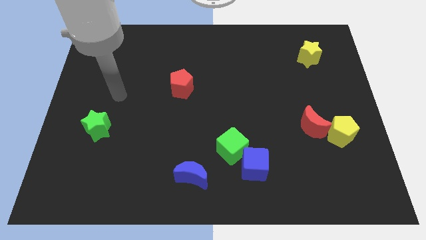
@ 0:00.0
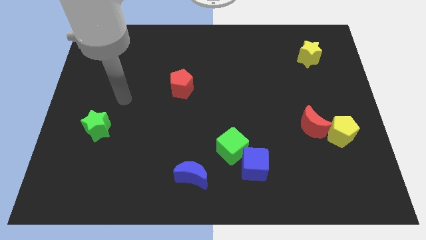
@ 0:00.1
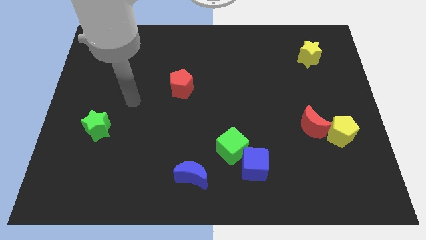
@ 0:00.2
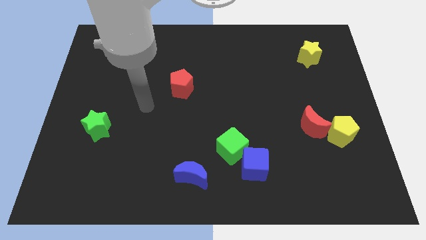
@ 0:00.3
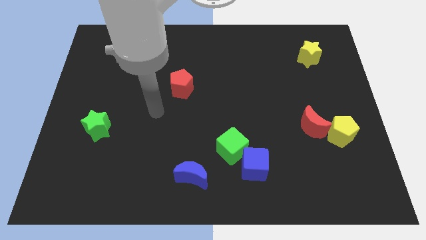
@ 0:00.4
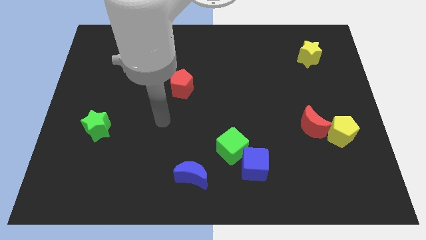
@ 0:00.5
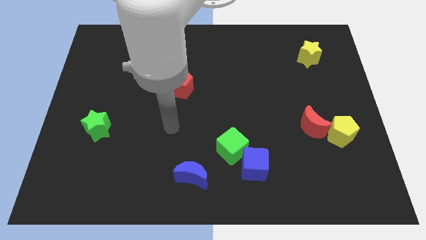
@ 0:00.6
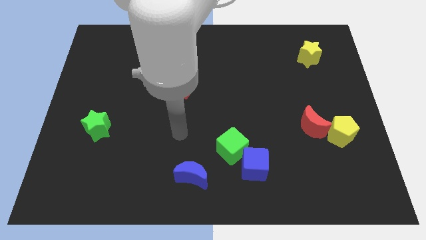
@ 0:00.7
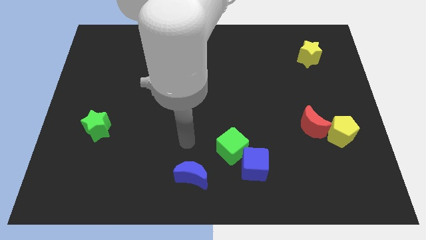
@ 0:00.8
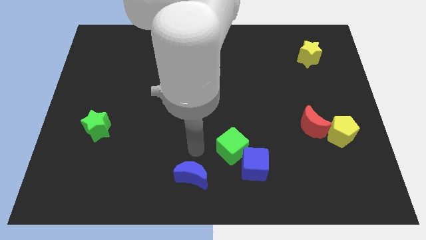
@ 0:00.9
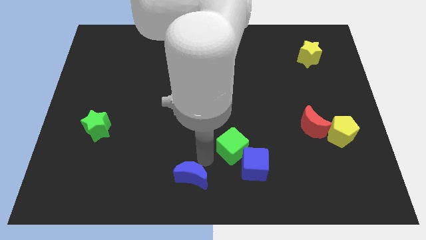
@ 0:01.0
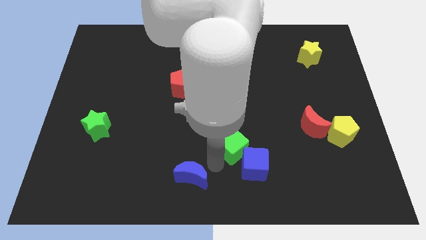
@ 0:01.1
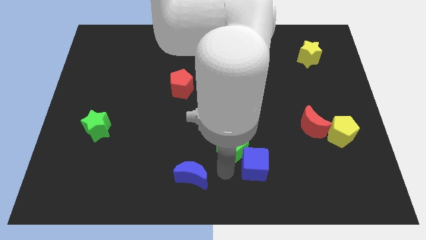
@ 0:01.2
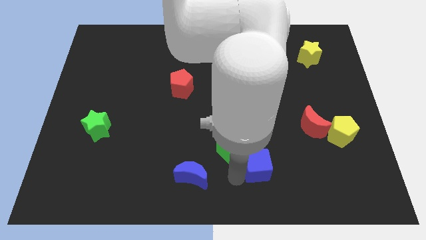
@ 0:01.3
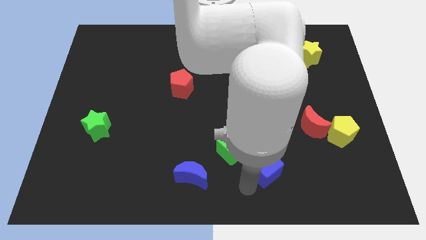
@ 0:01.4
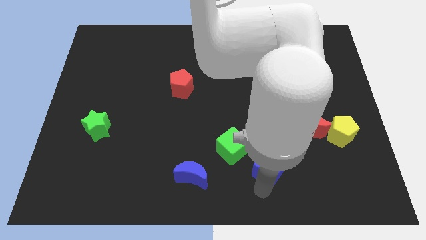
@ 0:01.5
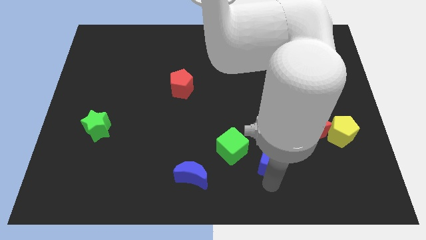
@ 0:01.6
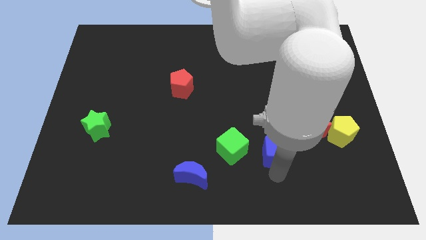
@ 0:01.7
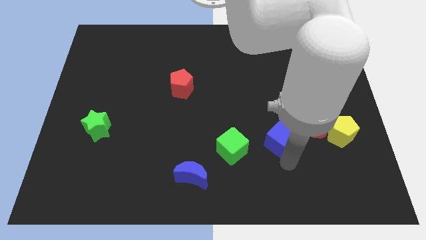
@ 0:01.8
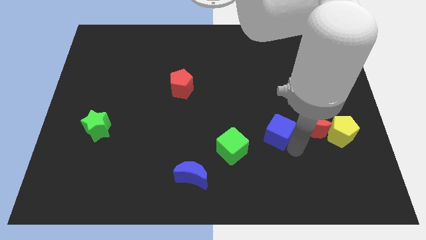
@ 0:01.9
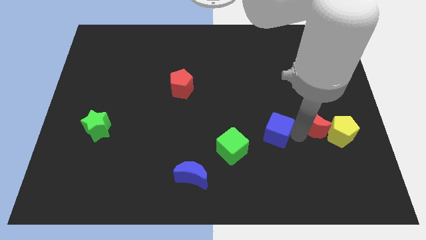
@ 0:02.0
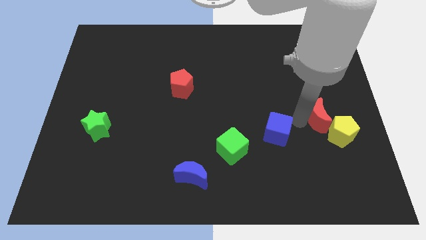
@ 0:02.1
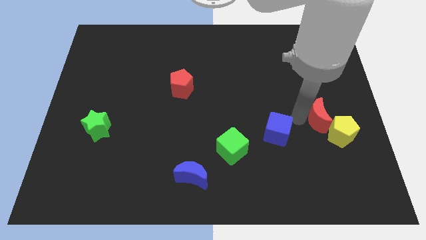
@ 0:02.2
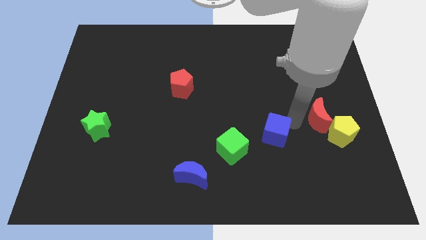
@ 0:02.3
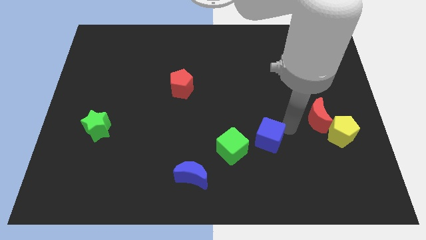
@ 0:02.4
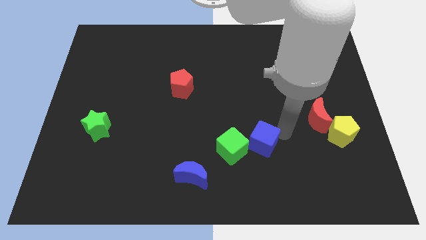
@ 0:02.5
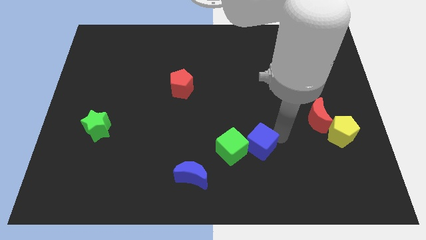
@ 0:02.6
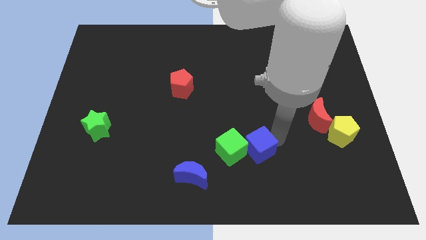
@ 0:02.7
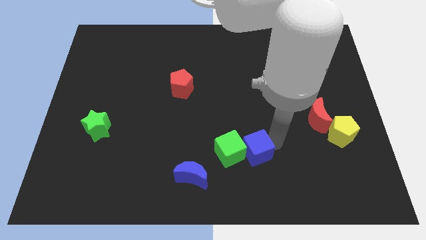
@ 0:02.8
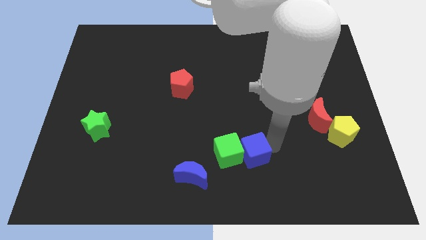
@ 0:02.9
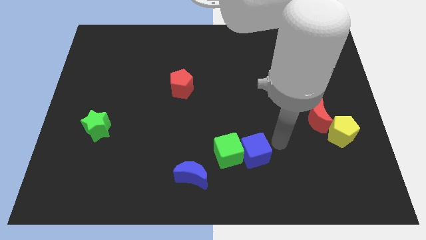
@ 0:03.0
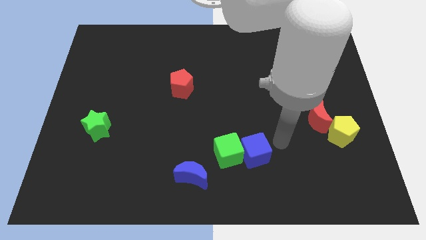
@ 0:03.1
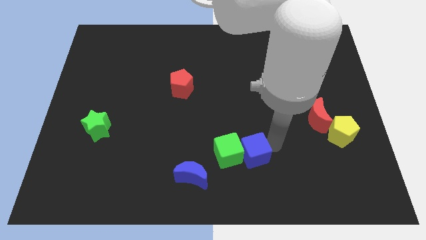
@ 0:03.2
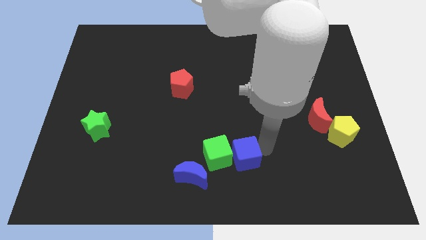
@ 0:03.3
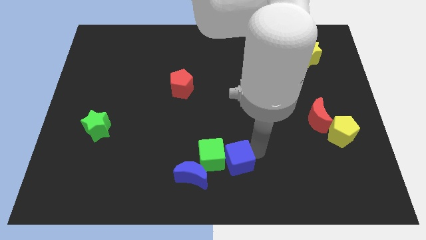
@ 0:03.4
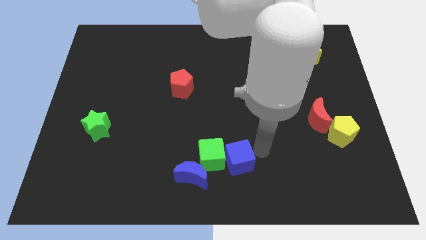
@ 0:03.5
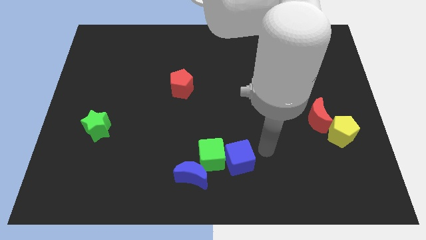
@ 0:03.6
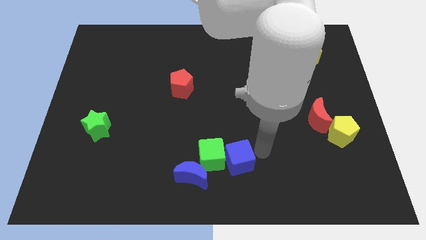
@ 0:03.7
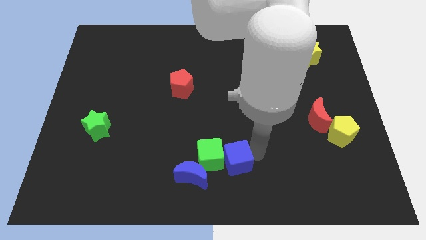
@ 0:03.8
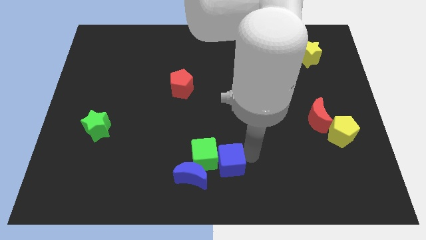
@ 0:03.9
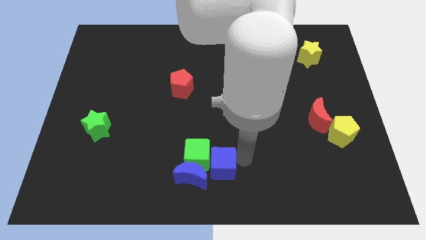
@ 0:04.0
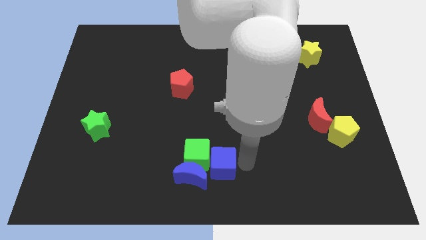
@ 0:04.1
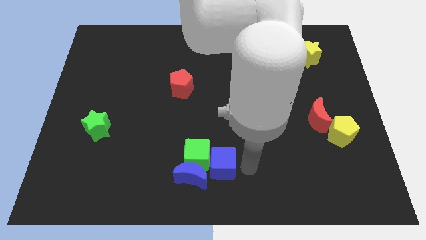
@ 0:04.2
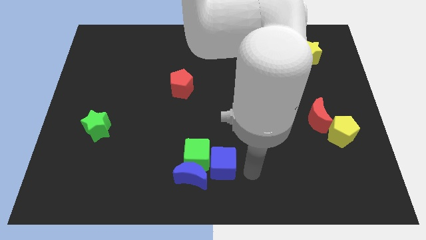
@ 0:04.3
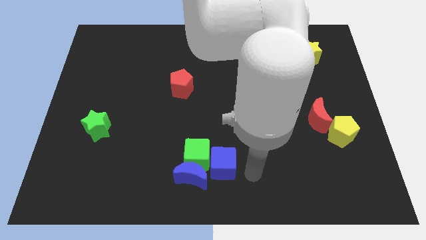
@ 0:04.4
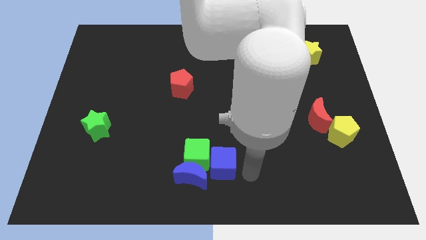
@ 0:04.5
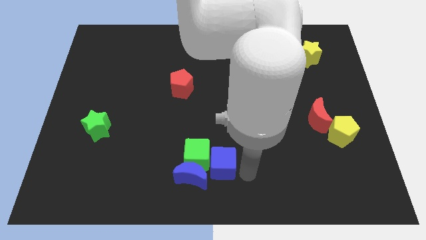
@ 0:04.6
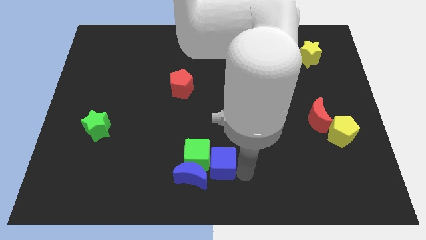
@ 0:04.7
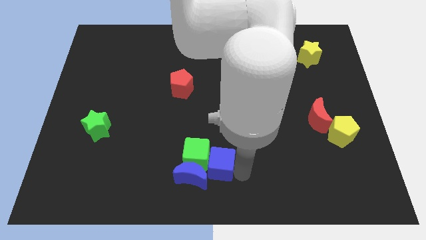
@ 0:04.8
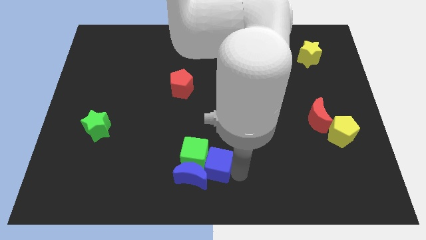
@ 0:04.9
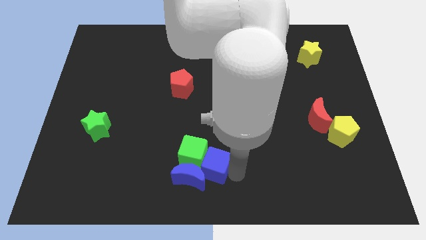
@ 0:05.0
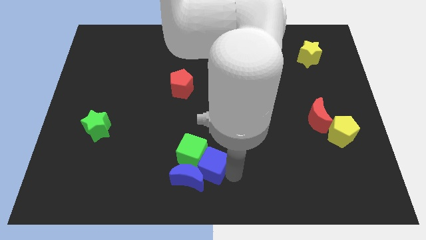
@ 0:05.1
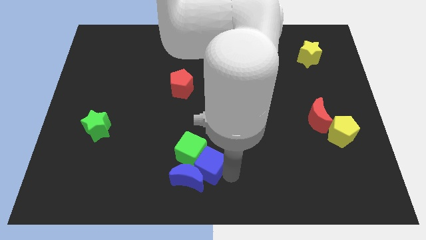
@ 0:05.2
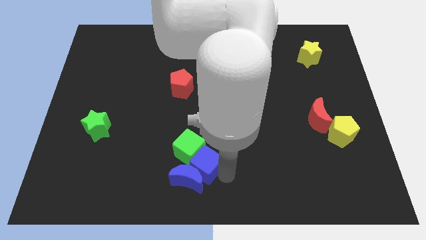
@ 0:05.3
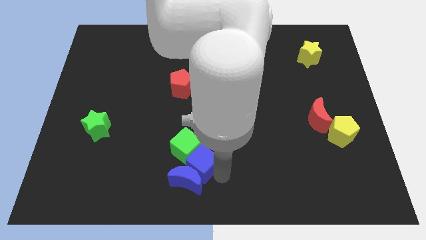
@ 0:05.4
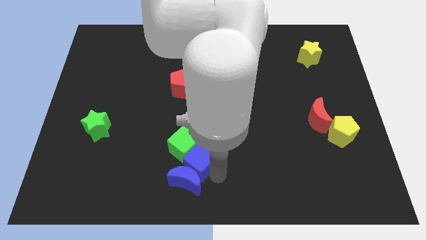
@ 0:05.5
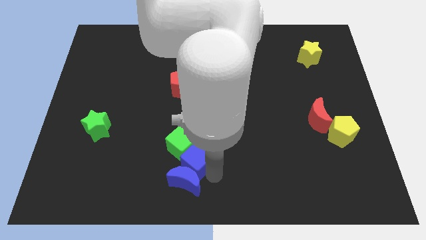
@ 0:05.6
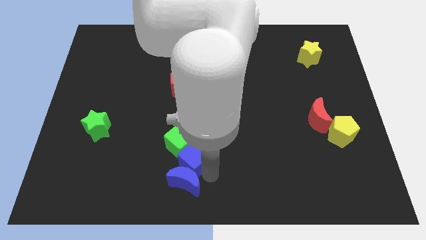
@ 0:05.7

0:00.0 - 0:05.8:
slide the blue cube up and then left slightly

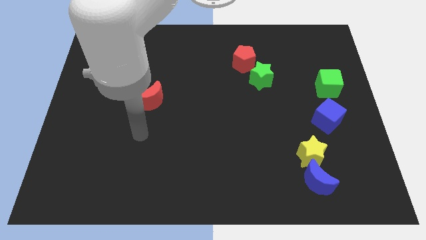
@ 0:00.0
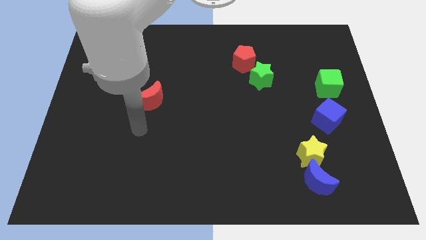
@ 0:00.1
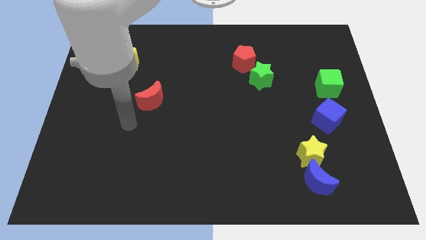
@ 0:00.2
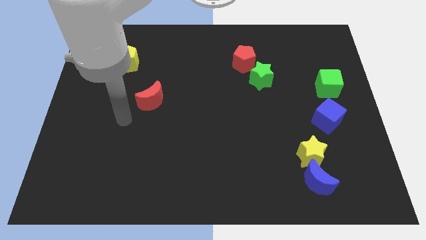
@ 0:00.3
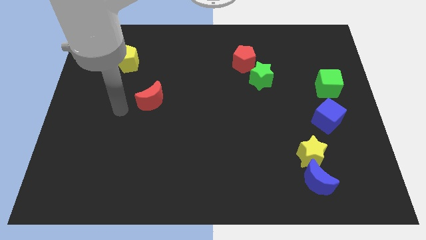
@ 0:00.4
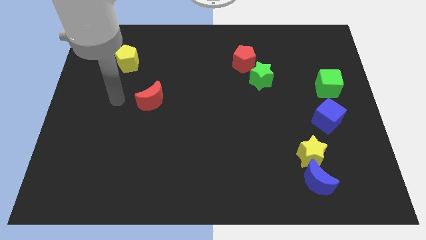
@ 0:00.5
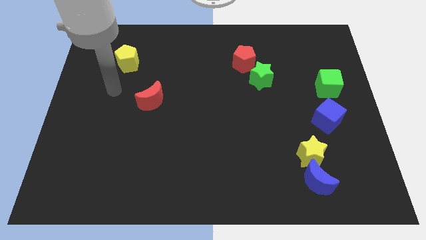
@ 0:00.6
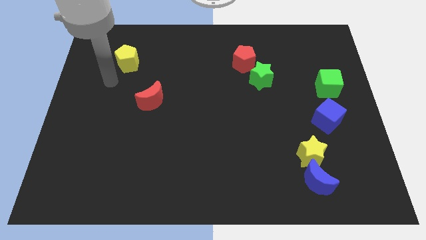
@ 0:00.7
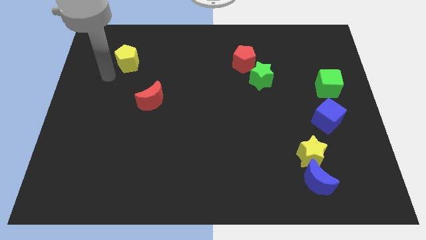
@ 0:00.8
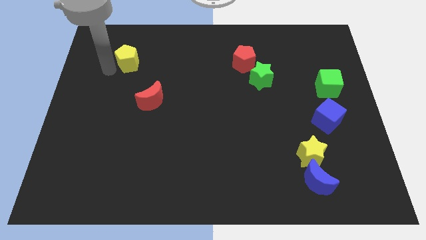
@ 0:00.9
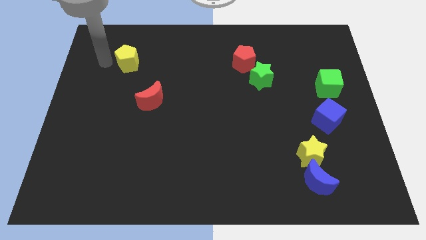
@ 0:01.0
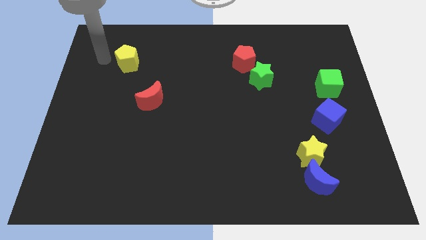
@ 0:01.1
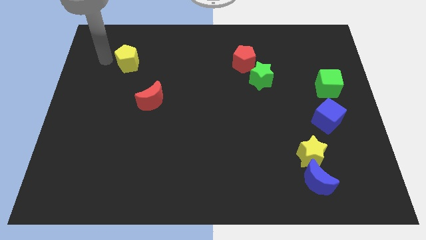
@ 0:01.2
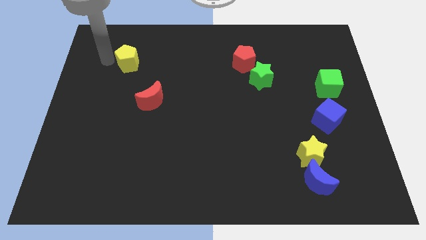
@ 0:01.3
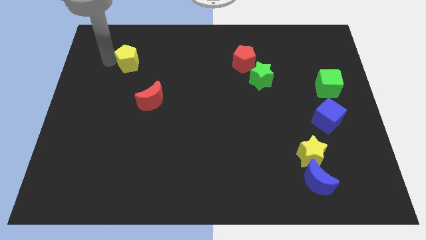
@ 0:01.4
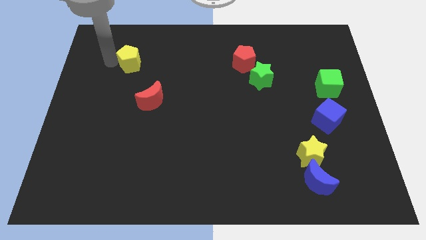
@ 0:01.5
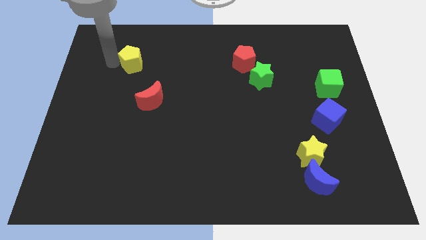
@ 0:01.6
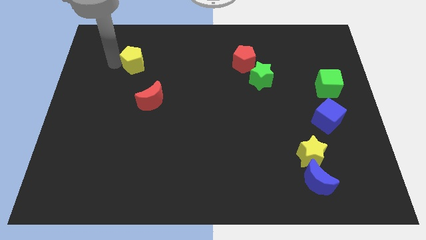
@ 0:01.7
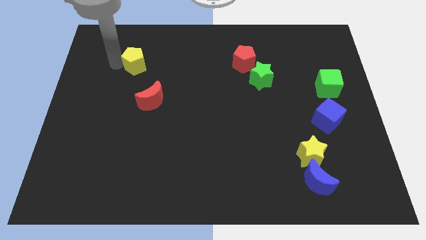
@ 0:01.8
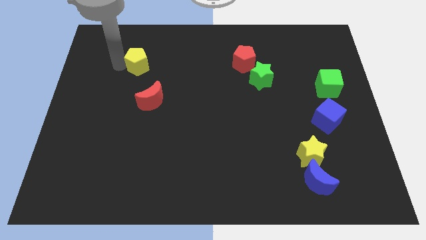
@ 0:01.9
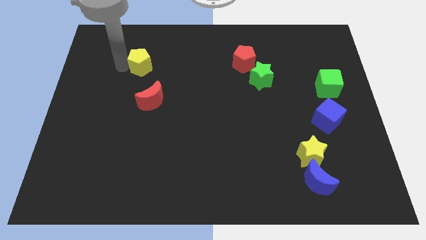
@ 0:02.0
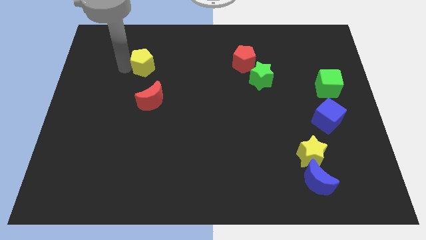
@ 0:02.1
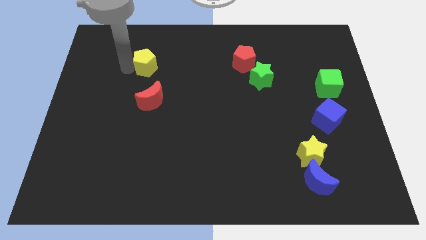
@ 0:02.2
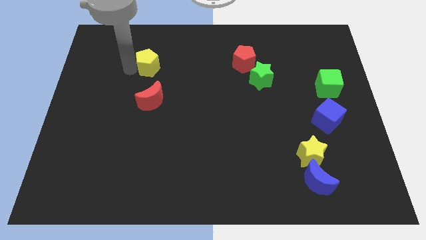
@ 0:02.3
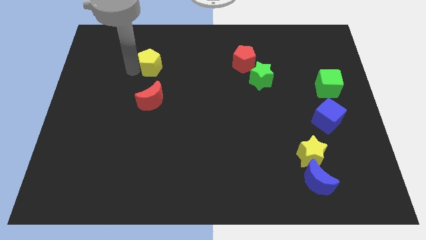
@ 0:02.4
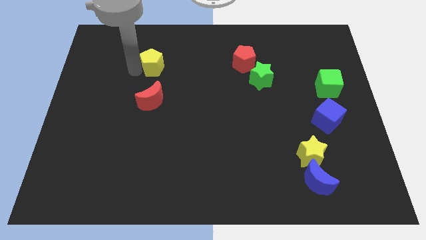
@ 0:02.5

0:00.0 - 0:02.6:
slide the yellow pentagon a bit to the right
